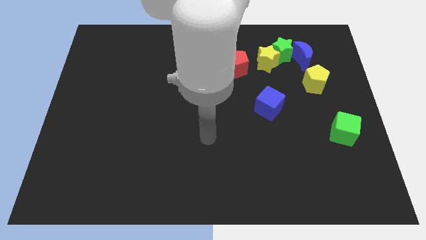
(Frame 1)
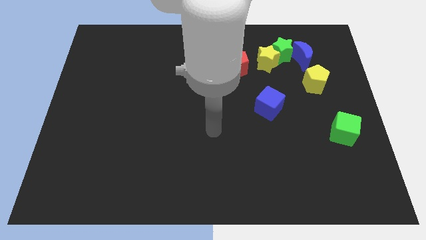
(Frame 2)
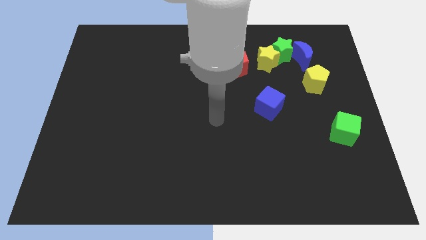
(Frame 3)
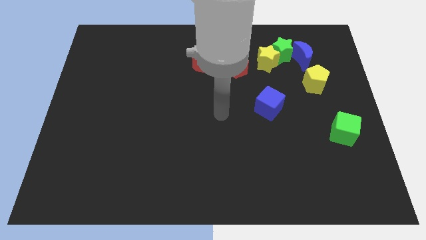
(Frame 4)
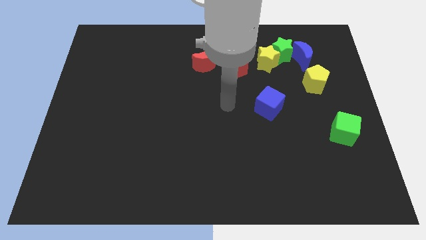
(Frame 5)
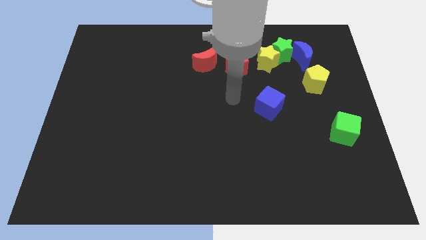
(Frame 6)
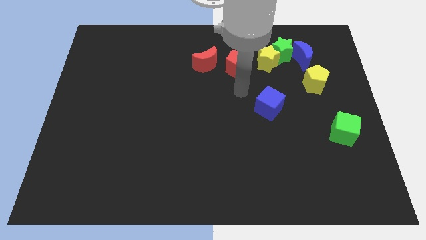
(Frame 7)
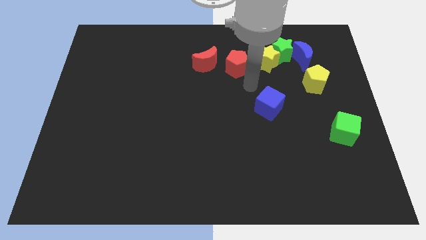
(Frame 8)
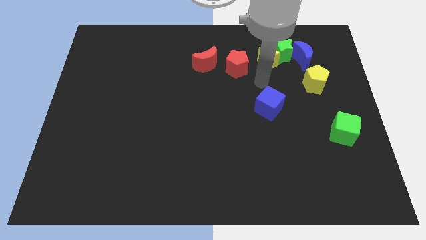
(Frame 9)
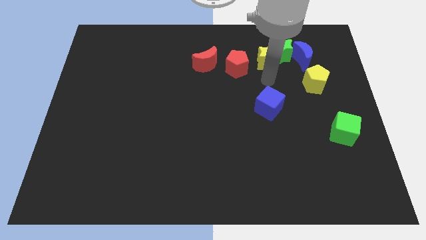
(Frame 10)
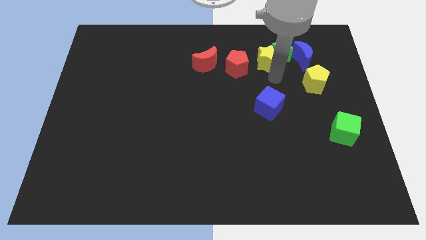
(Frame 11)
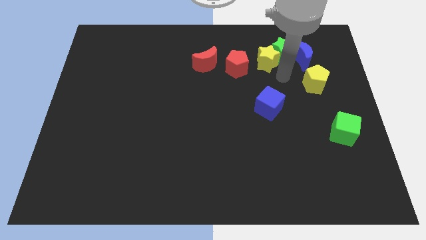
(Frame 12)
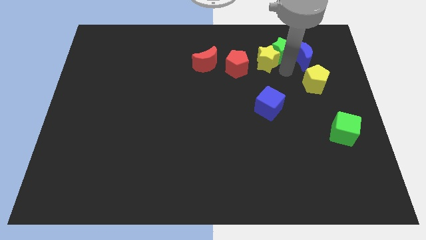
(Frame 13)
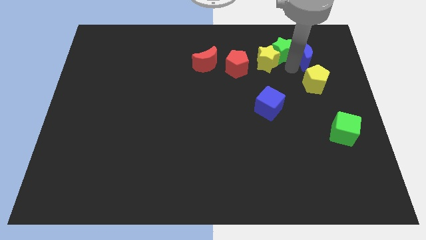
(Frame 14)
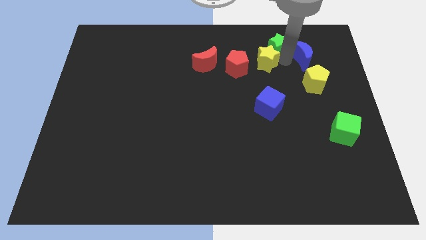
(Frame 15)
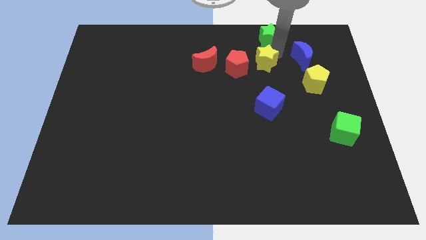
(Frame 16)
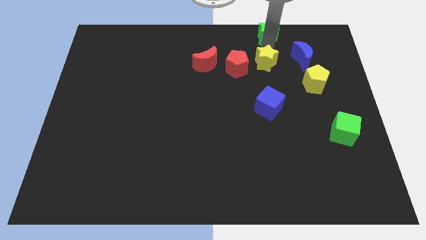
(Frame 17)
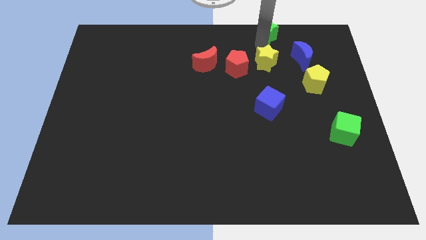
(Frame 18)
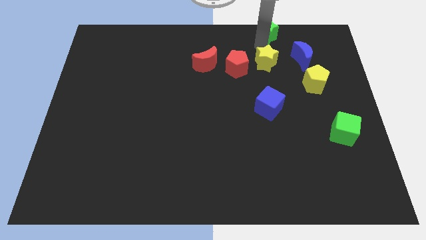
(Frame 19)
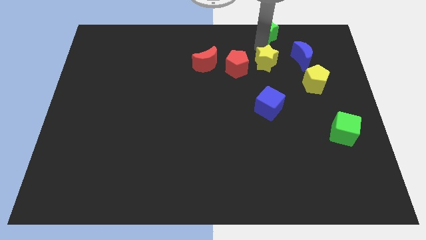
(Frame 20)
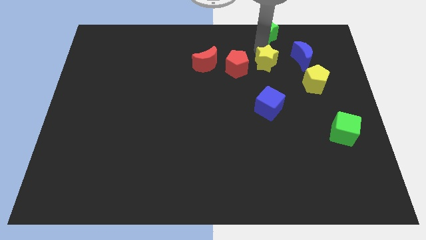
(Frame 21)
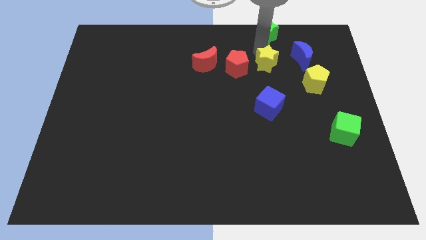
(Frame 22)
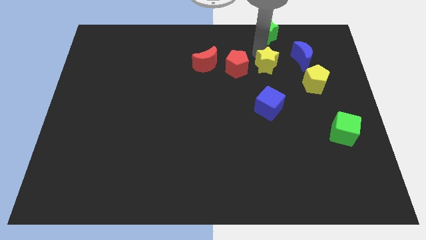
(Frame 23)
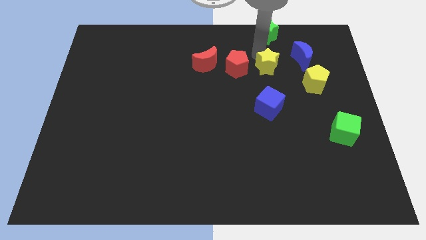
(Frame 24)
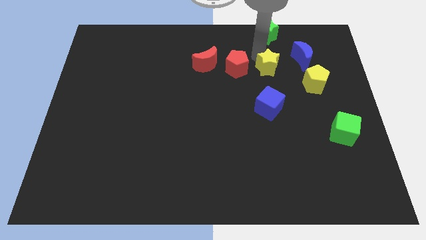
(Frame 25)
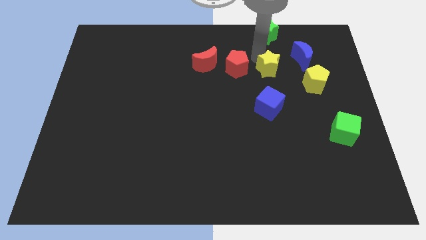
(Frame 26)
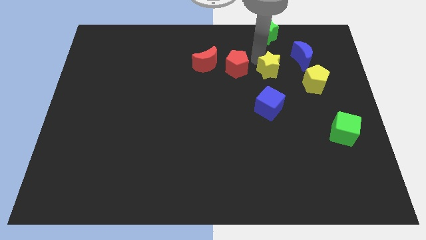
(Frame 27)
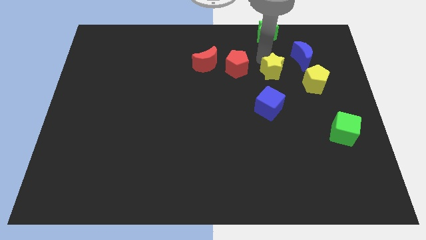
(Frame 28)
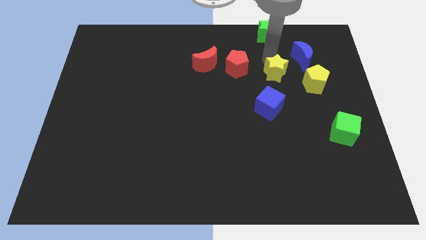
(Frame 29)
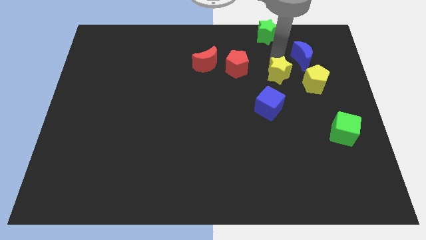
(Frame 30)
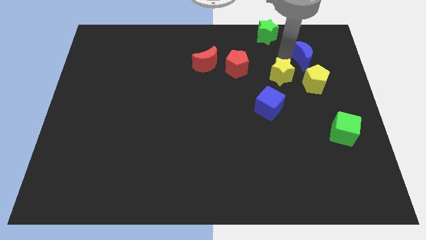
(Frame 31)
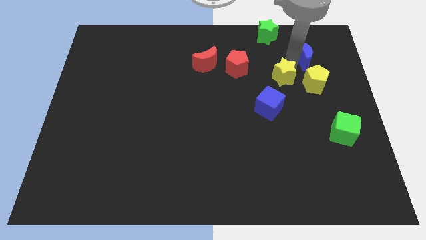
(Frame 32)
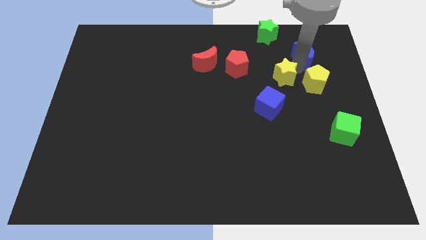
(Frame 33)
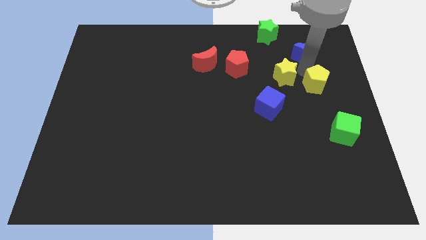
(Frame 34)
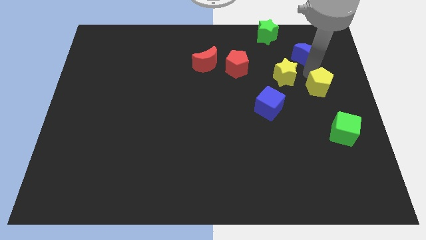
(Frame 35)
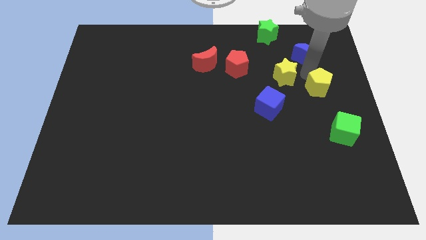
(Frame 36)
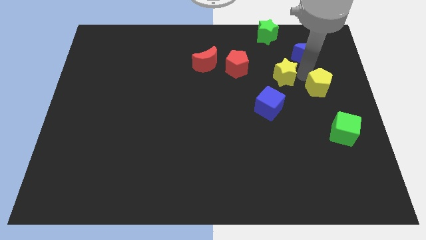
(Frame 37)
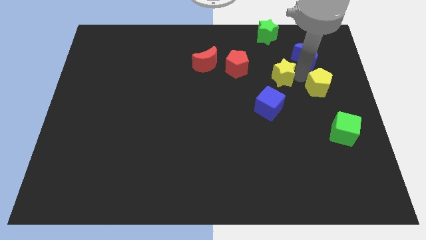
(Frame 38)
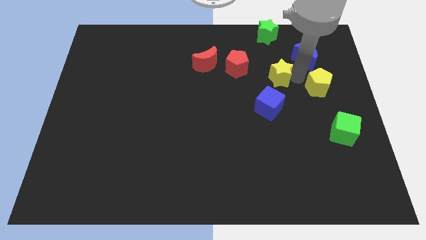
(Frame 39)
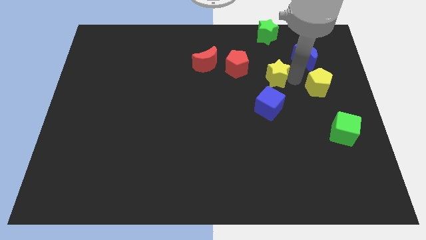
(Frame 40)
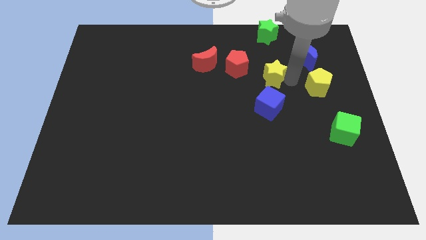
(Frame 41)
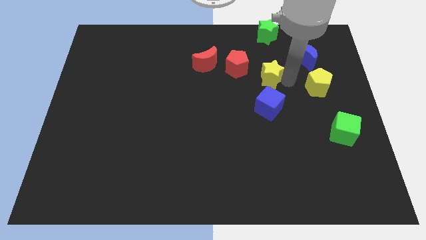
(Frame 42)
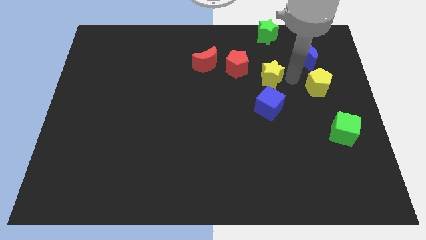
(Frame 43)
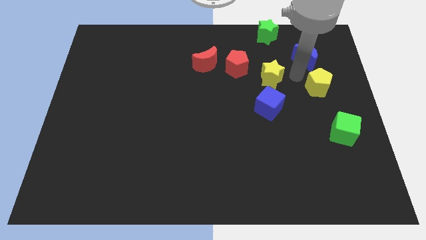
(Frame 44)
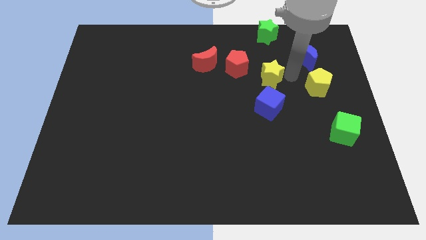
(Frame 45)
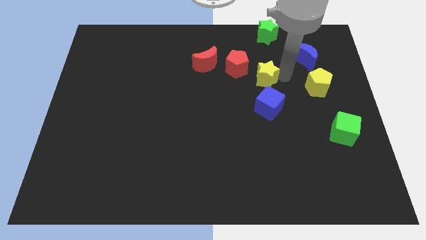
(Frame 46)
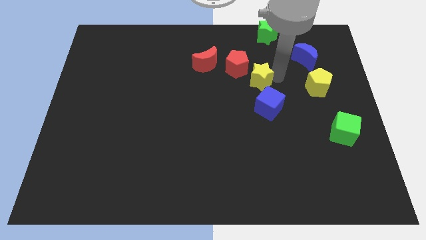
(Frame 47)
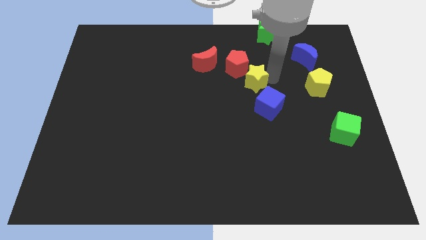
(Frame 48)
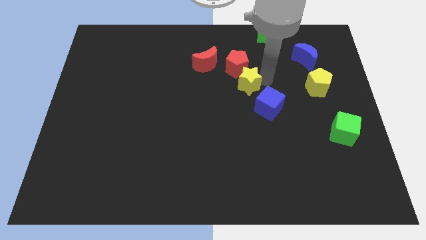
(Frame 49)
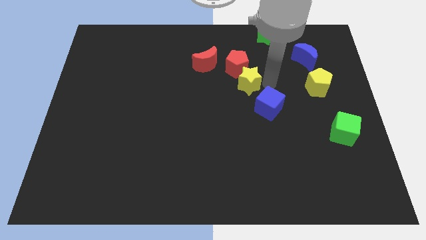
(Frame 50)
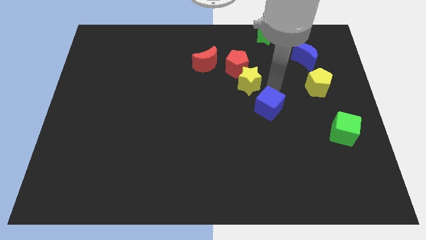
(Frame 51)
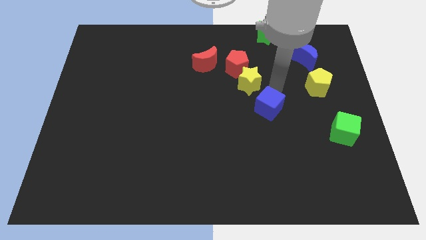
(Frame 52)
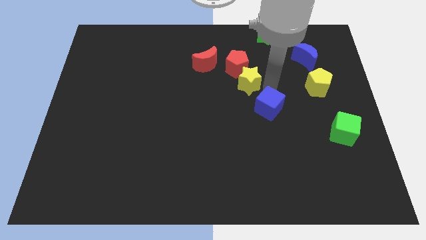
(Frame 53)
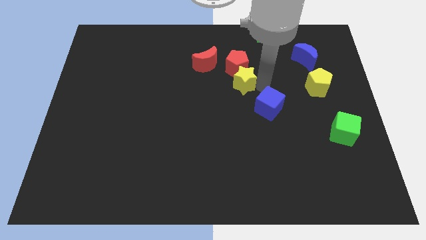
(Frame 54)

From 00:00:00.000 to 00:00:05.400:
put the yellow star diagonally down and to the right of the red moon

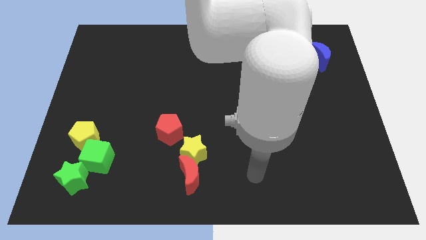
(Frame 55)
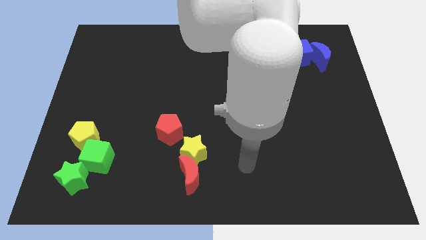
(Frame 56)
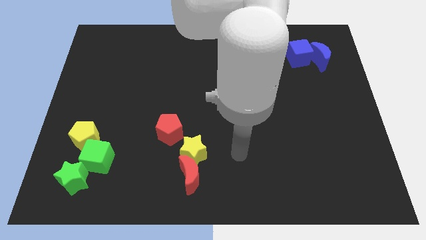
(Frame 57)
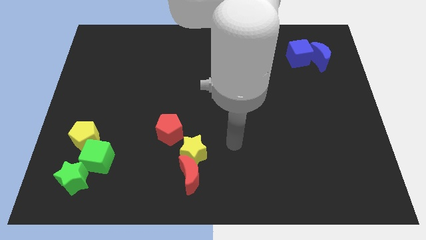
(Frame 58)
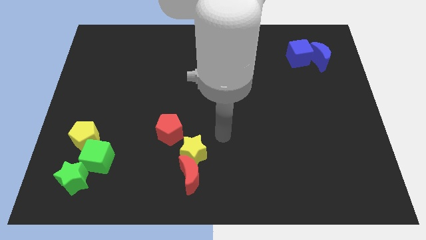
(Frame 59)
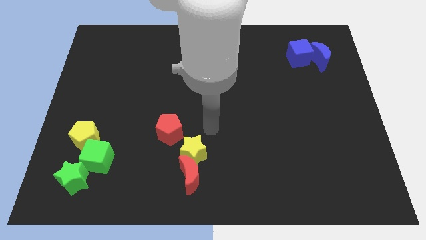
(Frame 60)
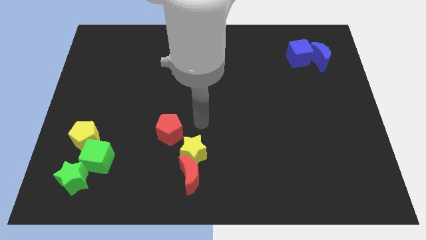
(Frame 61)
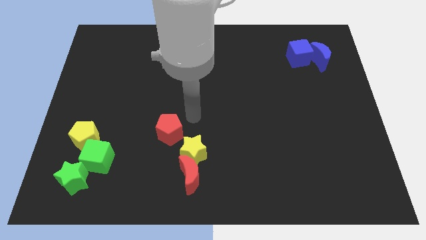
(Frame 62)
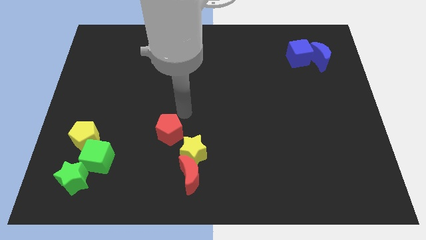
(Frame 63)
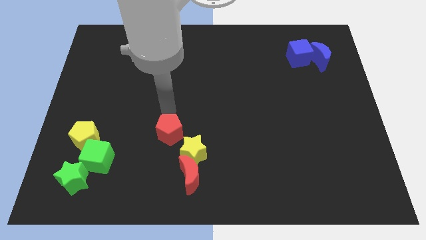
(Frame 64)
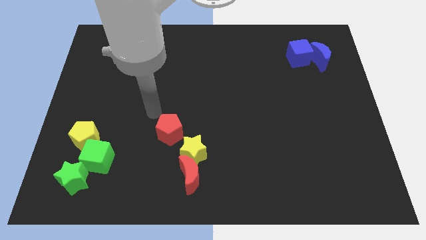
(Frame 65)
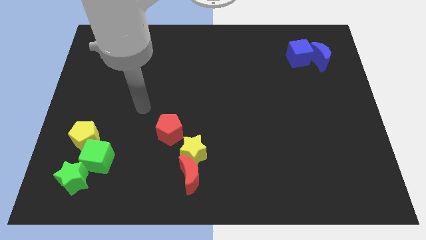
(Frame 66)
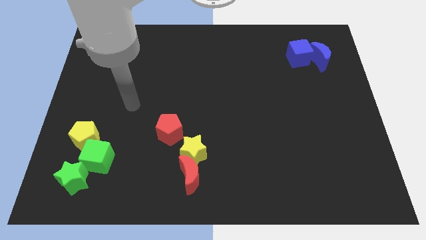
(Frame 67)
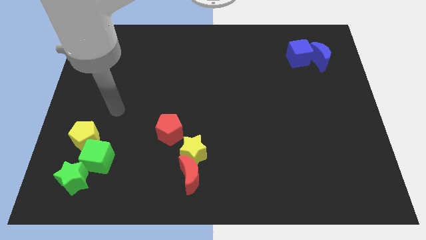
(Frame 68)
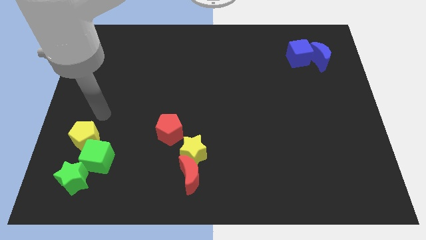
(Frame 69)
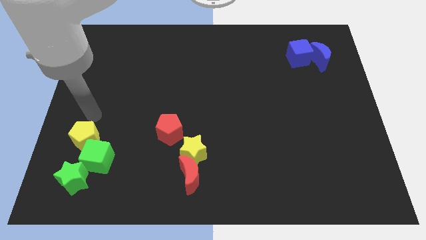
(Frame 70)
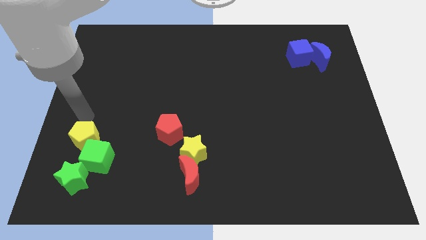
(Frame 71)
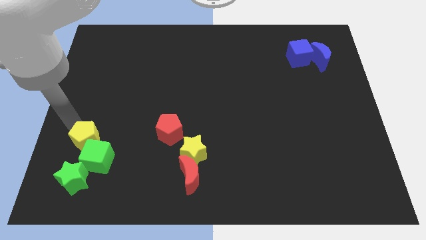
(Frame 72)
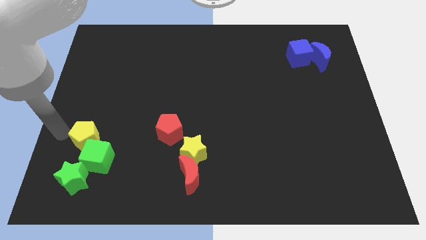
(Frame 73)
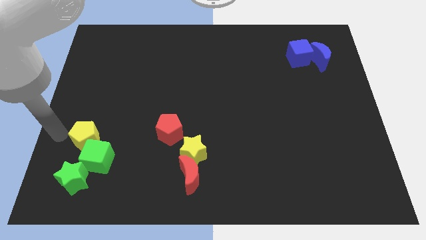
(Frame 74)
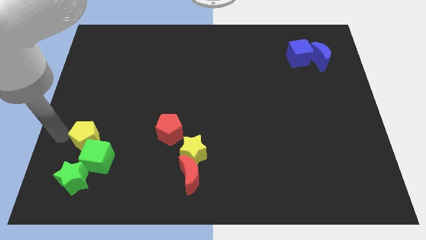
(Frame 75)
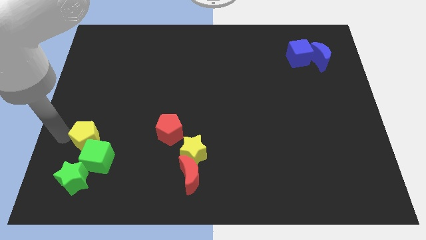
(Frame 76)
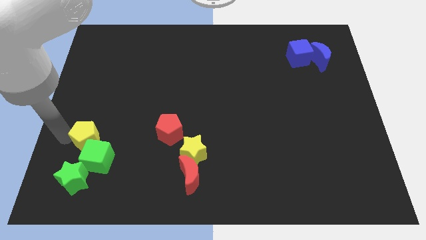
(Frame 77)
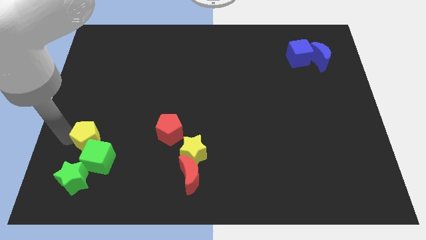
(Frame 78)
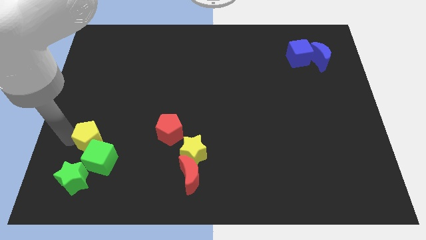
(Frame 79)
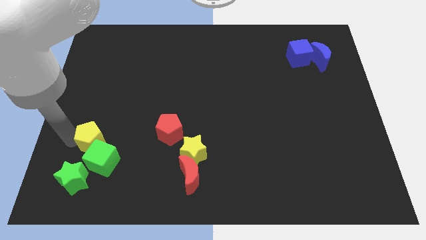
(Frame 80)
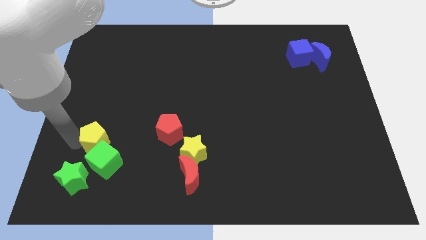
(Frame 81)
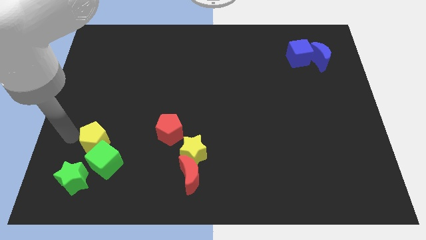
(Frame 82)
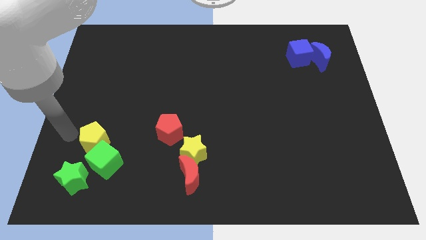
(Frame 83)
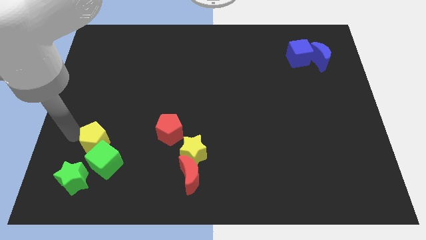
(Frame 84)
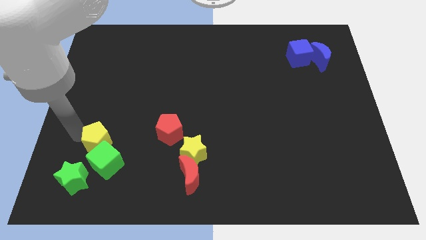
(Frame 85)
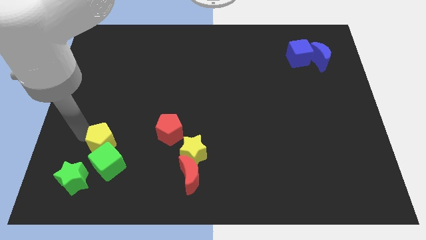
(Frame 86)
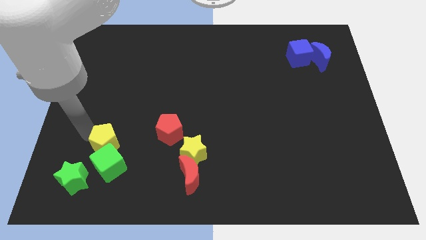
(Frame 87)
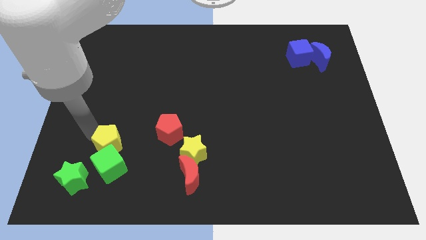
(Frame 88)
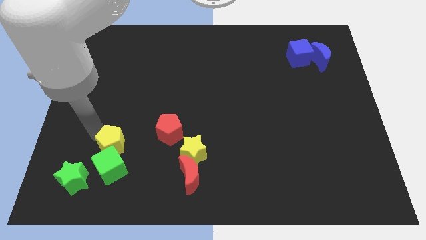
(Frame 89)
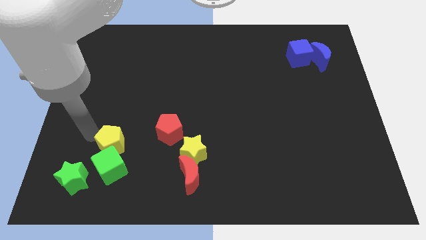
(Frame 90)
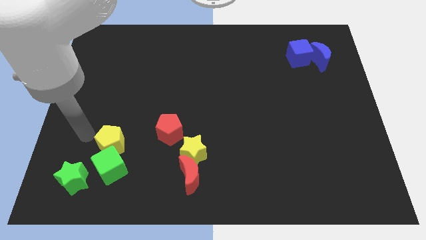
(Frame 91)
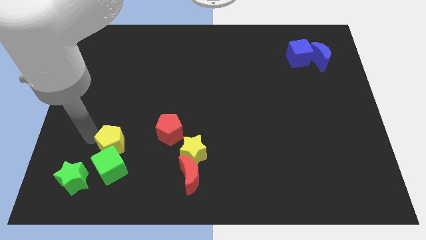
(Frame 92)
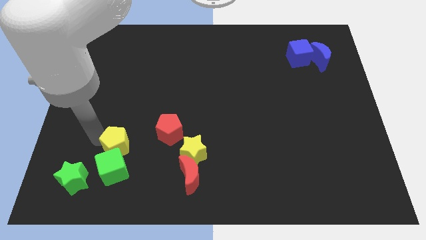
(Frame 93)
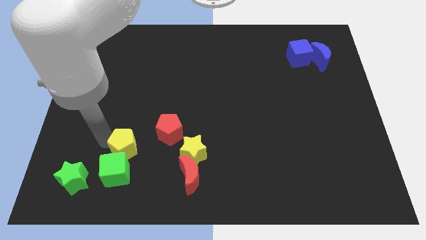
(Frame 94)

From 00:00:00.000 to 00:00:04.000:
push the yellow pentagon to the bottom left side of the red pentagon
